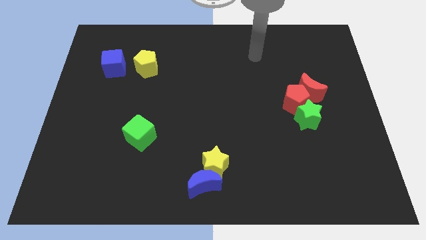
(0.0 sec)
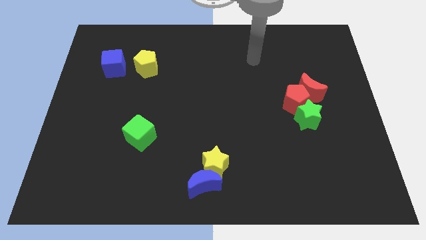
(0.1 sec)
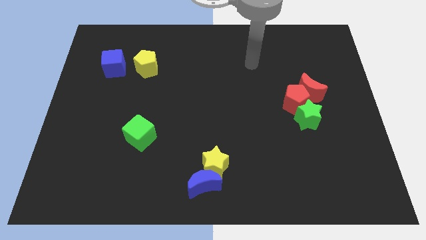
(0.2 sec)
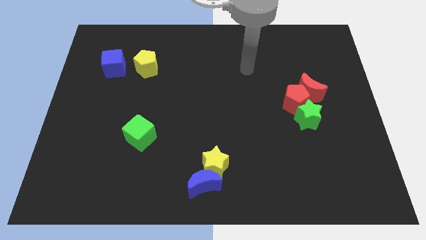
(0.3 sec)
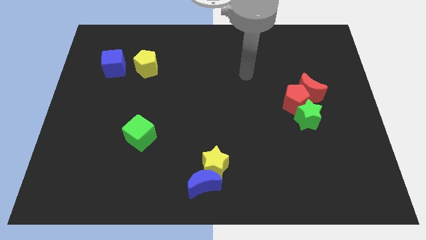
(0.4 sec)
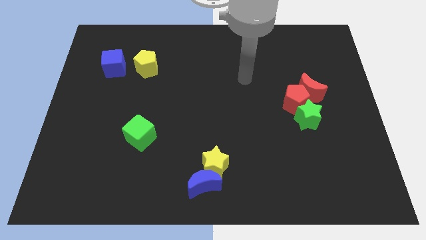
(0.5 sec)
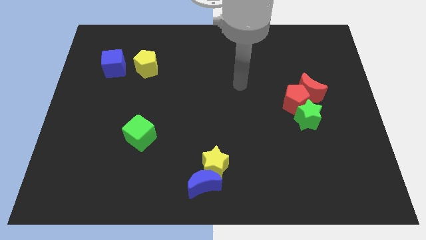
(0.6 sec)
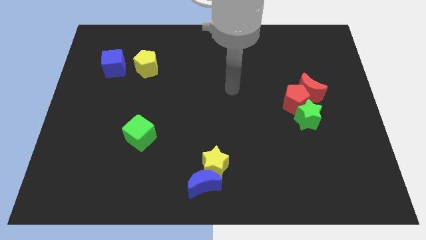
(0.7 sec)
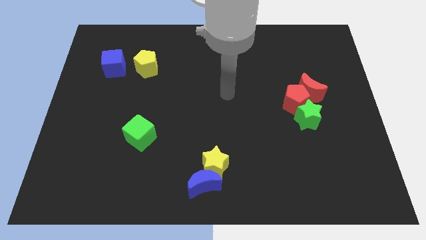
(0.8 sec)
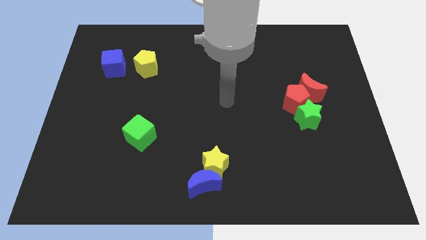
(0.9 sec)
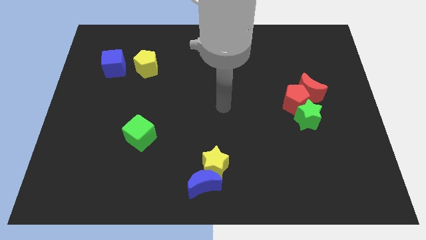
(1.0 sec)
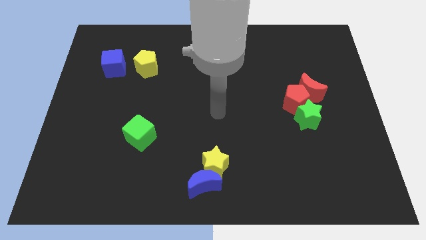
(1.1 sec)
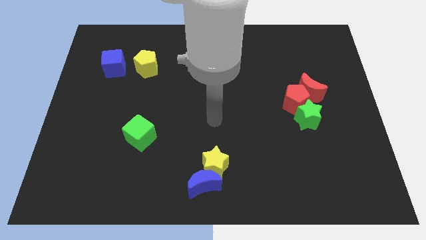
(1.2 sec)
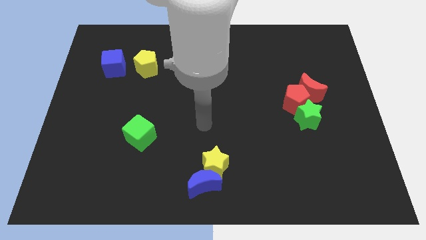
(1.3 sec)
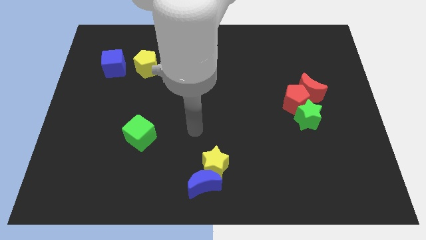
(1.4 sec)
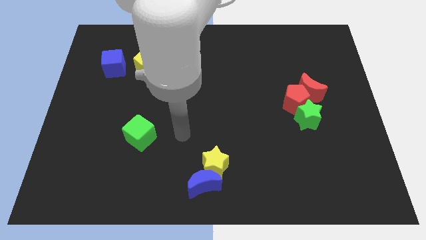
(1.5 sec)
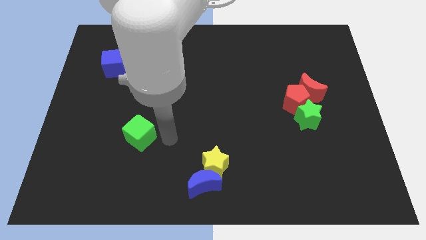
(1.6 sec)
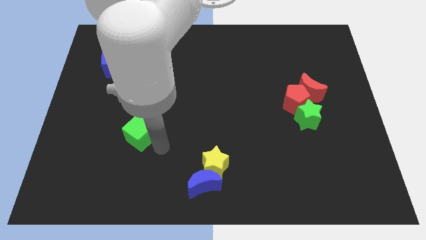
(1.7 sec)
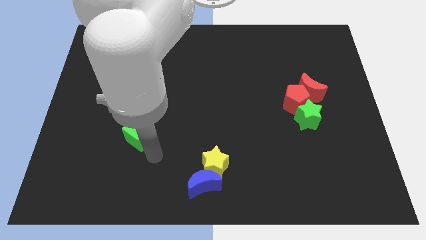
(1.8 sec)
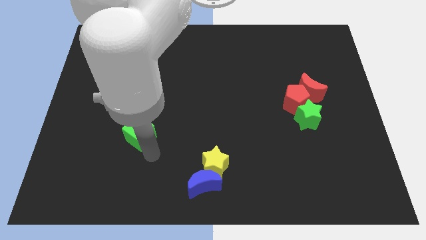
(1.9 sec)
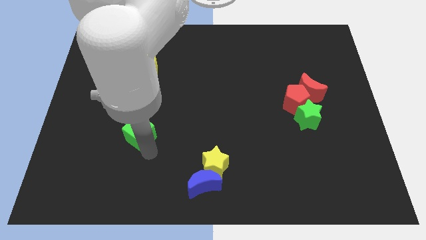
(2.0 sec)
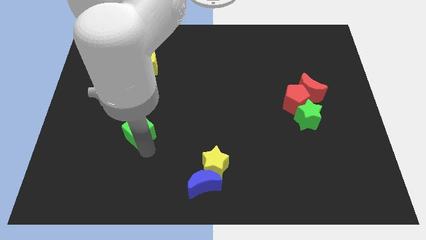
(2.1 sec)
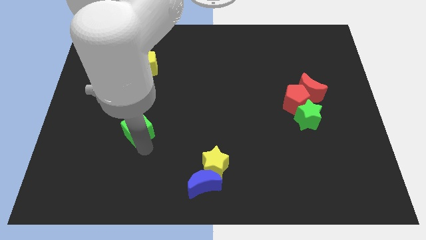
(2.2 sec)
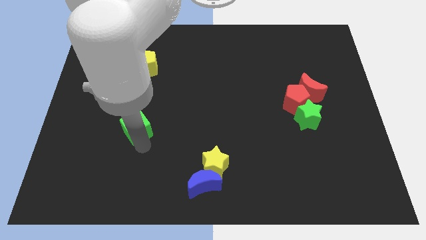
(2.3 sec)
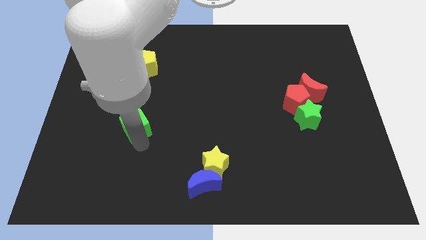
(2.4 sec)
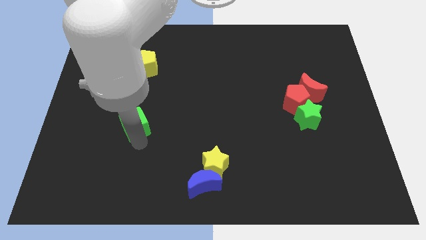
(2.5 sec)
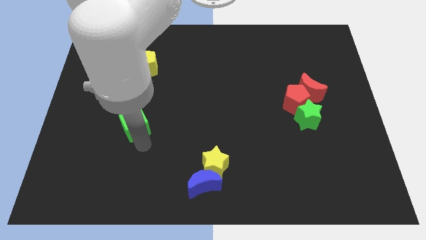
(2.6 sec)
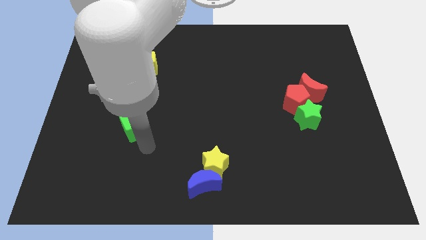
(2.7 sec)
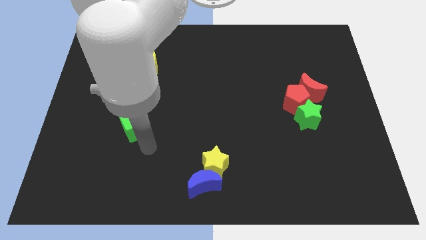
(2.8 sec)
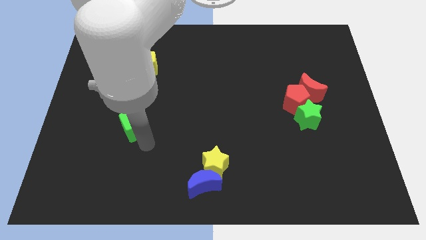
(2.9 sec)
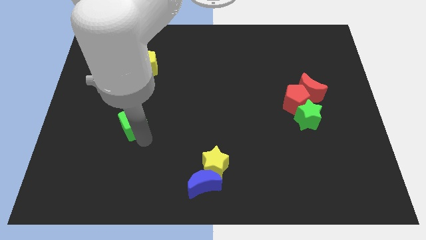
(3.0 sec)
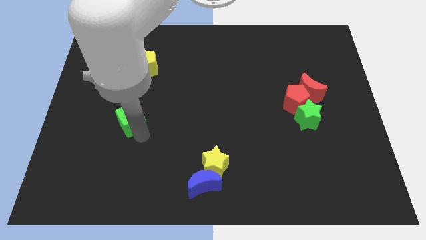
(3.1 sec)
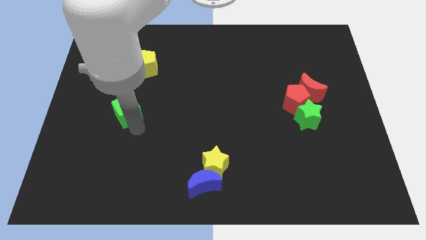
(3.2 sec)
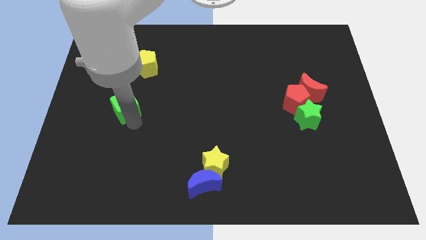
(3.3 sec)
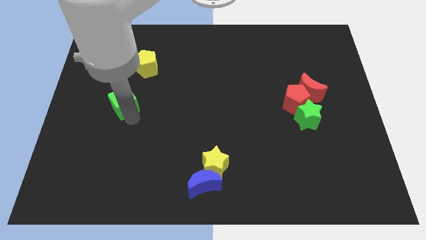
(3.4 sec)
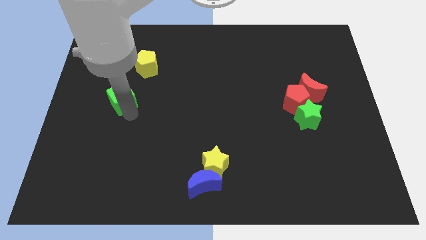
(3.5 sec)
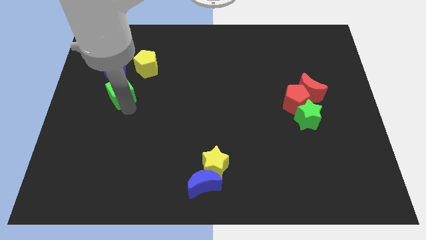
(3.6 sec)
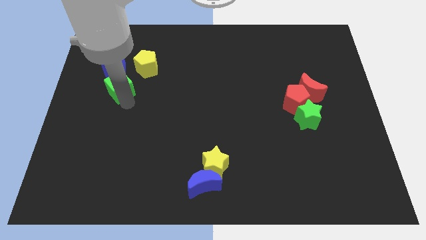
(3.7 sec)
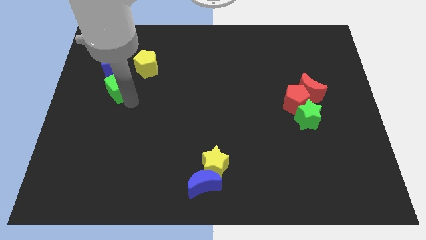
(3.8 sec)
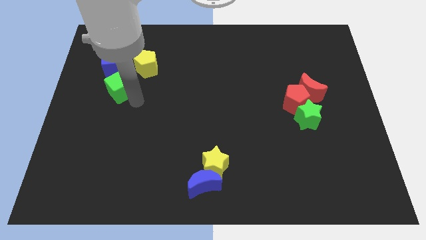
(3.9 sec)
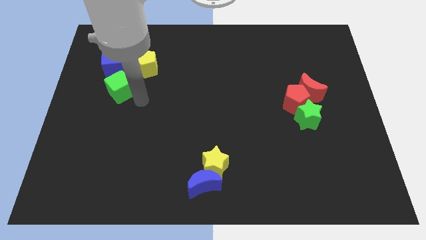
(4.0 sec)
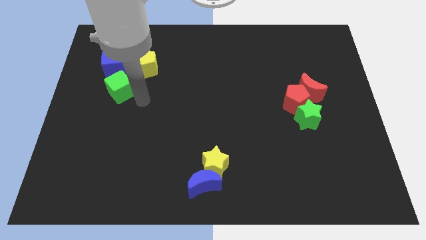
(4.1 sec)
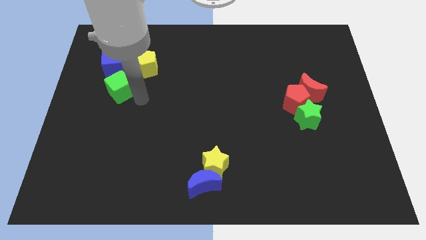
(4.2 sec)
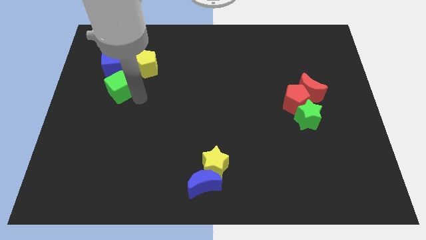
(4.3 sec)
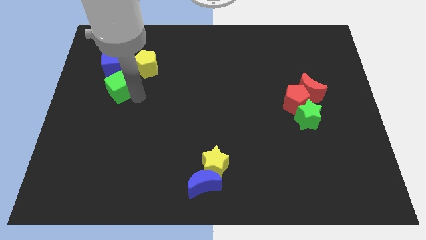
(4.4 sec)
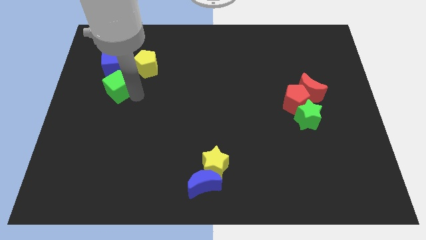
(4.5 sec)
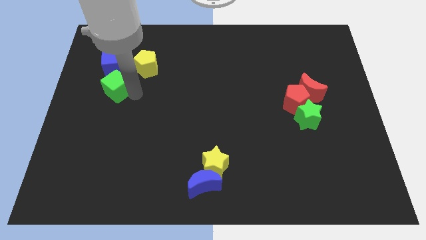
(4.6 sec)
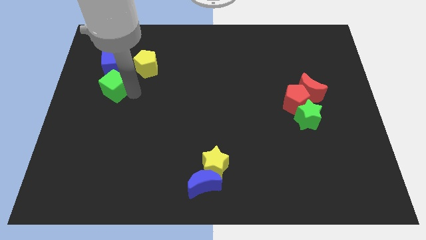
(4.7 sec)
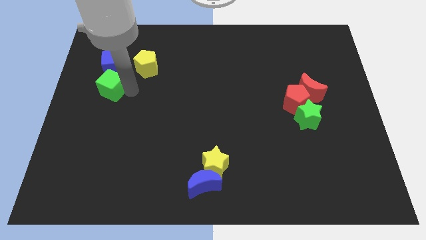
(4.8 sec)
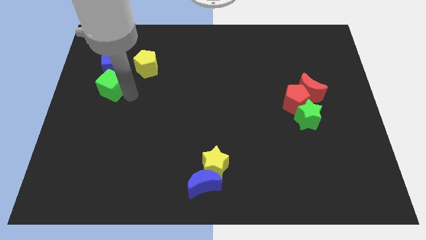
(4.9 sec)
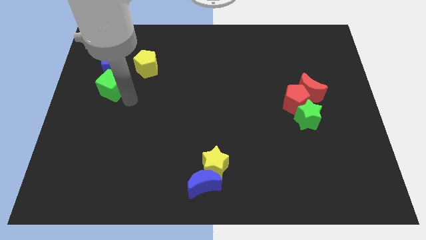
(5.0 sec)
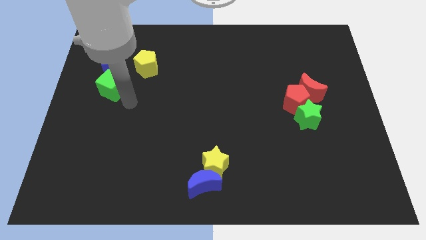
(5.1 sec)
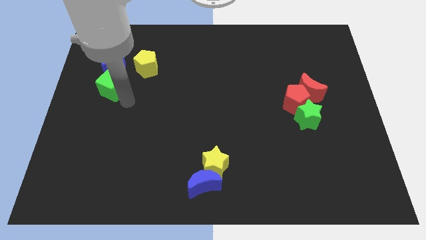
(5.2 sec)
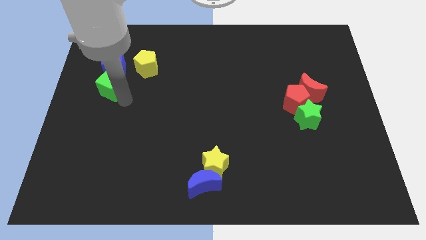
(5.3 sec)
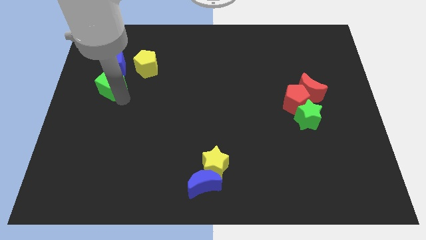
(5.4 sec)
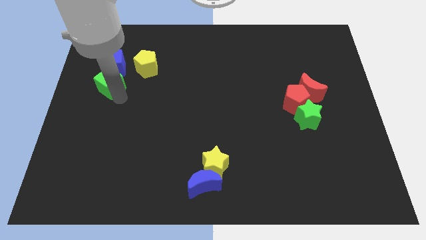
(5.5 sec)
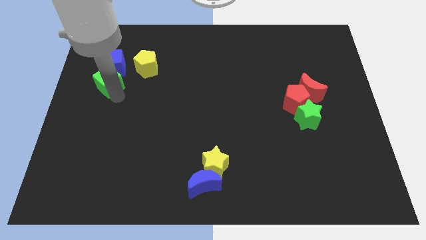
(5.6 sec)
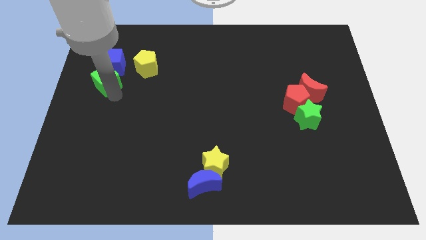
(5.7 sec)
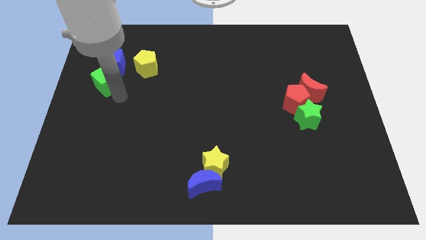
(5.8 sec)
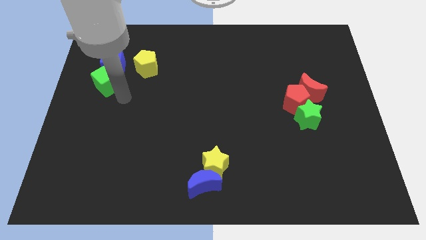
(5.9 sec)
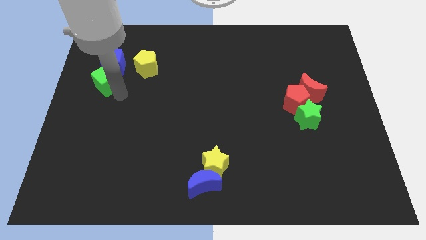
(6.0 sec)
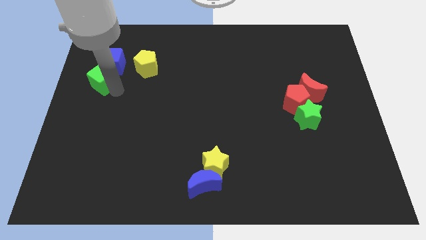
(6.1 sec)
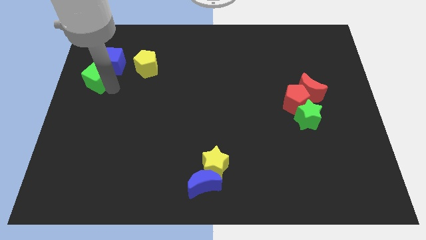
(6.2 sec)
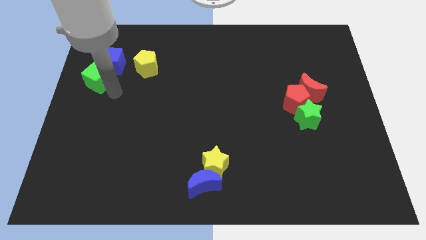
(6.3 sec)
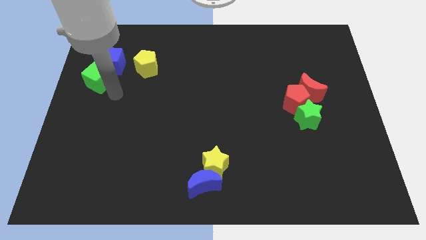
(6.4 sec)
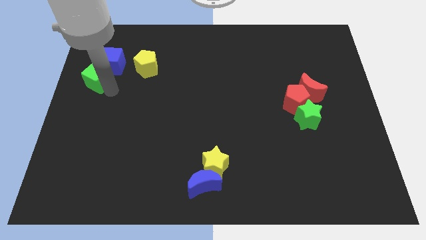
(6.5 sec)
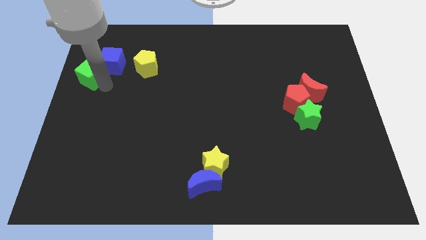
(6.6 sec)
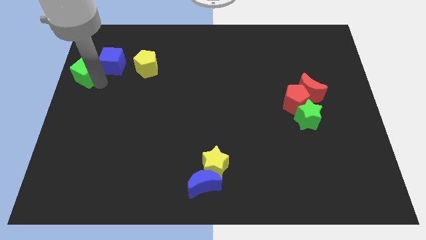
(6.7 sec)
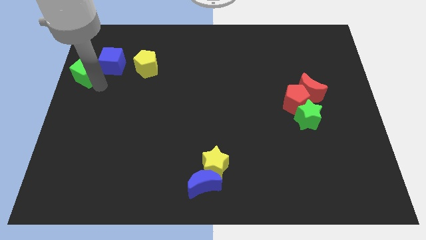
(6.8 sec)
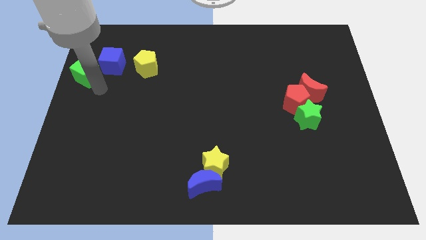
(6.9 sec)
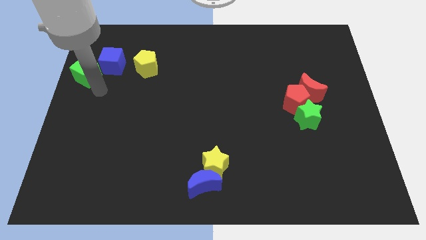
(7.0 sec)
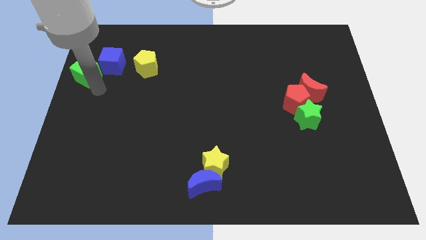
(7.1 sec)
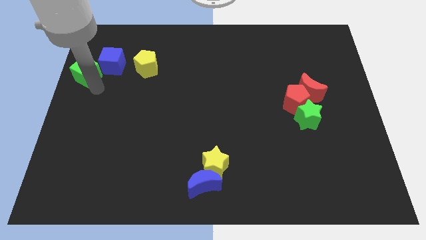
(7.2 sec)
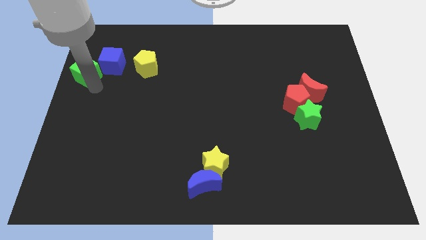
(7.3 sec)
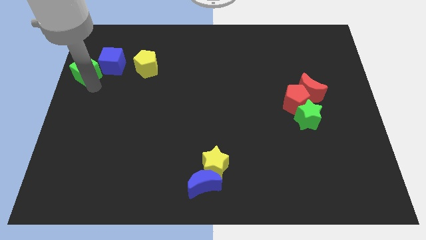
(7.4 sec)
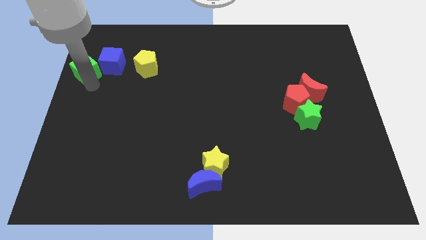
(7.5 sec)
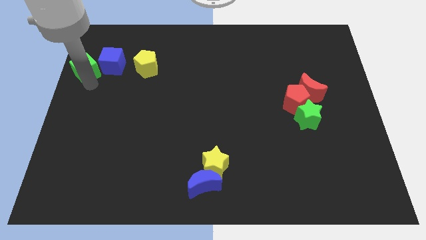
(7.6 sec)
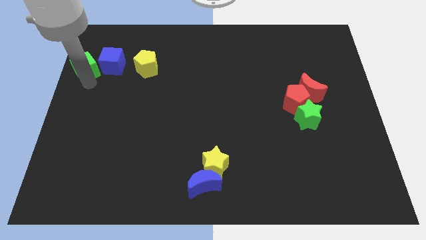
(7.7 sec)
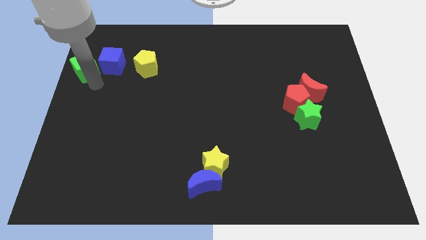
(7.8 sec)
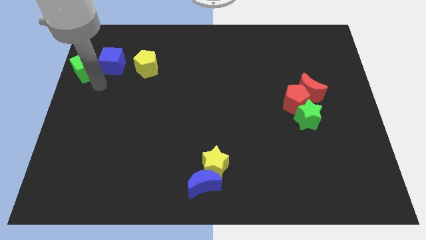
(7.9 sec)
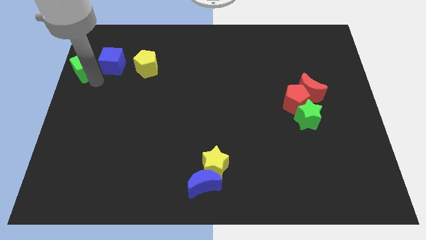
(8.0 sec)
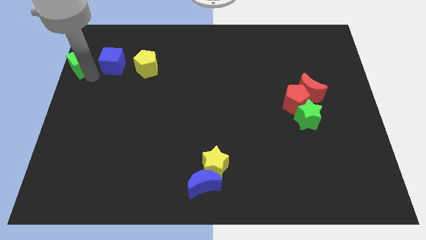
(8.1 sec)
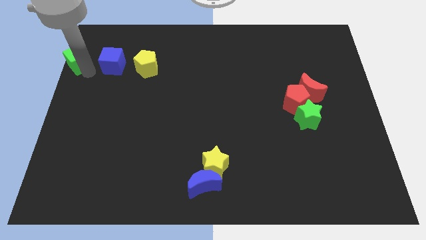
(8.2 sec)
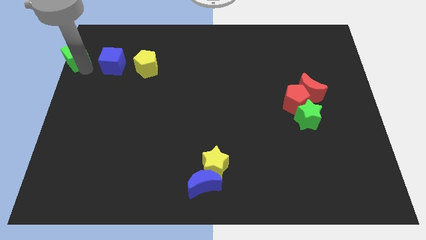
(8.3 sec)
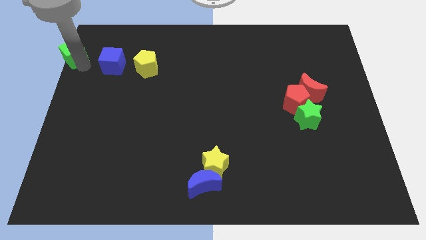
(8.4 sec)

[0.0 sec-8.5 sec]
push the green cube to the top left corner
